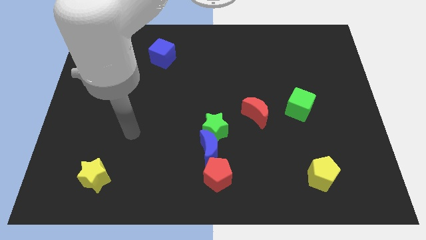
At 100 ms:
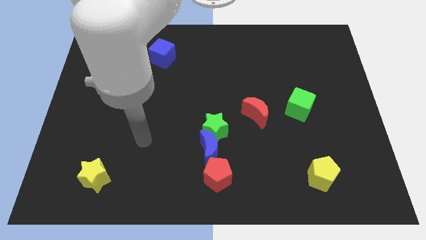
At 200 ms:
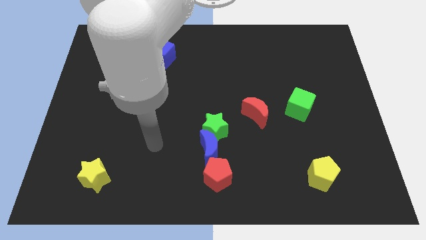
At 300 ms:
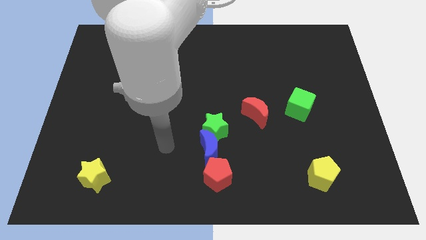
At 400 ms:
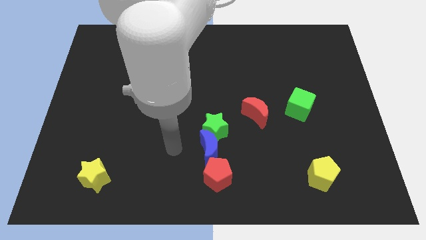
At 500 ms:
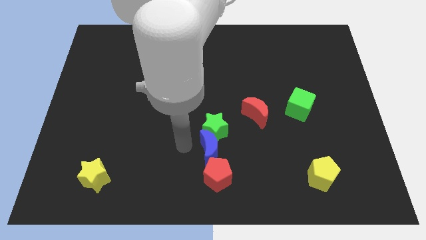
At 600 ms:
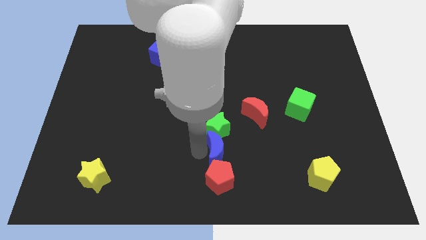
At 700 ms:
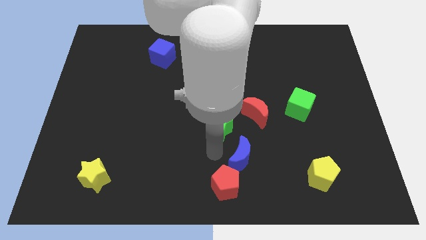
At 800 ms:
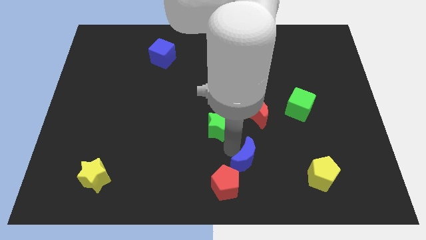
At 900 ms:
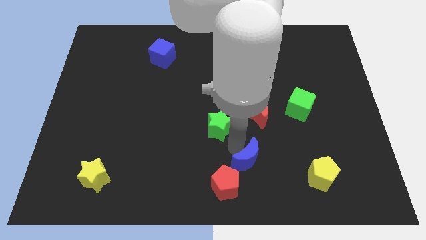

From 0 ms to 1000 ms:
move the green star away from the blue moon

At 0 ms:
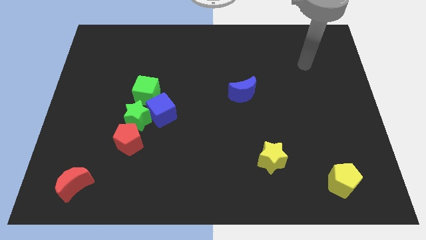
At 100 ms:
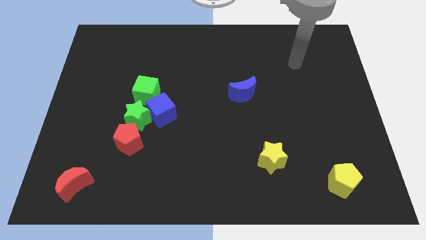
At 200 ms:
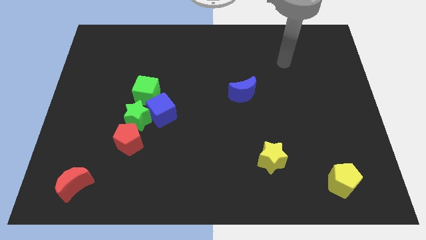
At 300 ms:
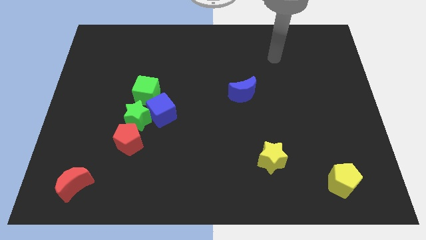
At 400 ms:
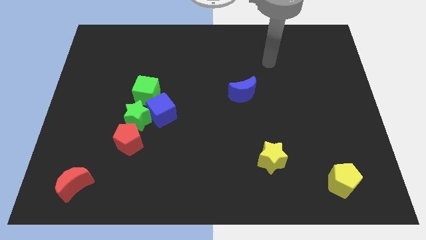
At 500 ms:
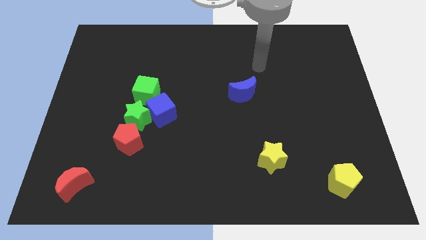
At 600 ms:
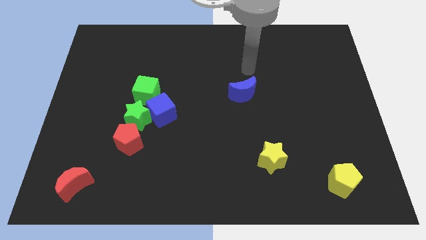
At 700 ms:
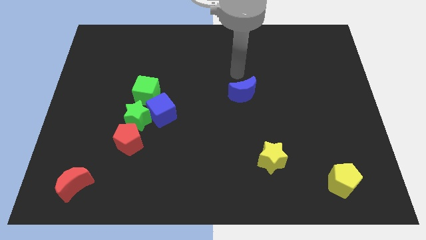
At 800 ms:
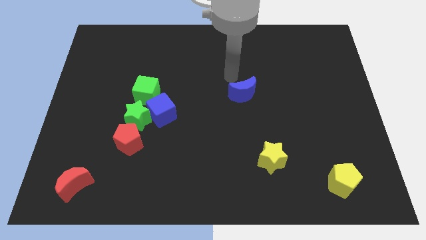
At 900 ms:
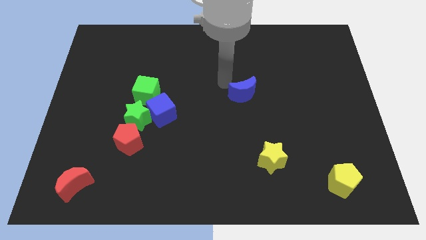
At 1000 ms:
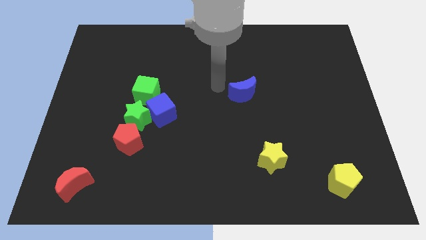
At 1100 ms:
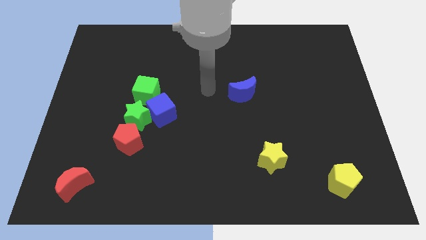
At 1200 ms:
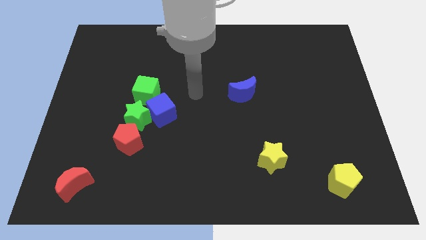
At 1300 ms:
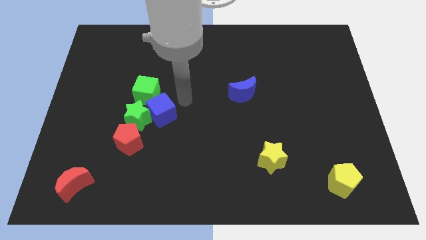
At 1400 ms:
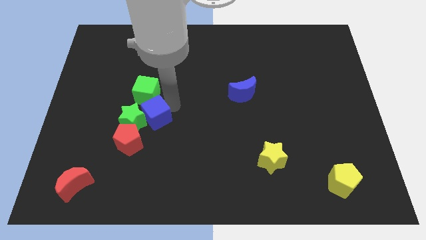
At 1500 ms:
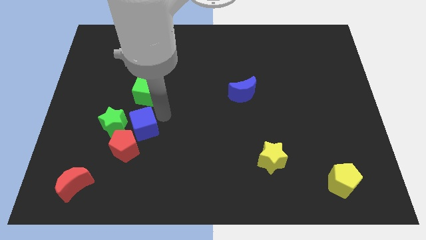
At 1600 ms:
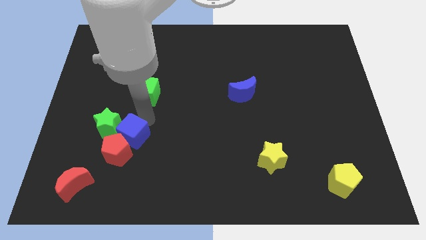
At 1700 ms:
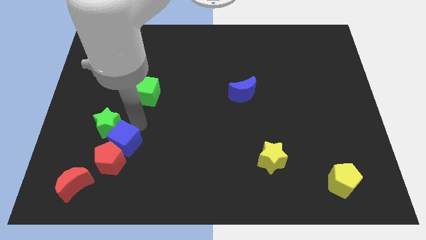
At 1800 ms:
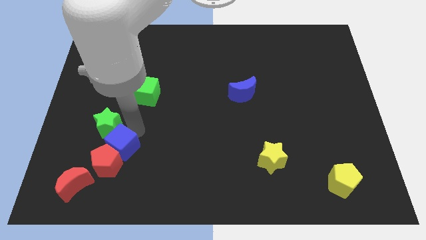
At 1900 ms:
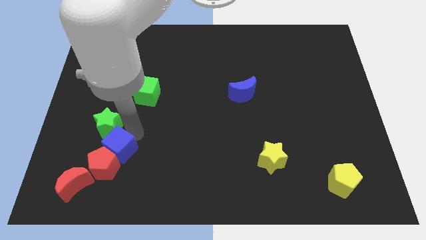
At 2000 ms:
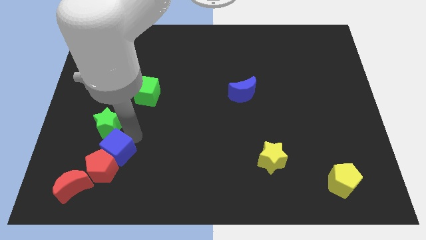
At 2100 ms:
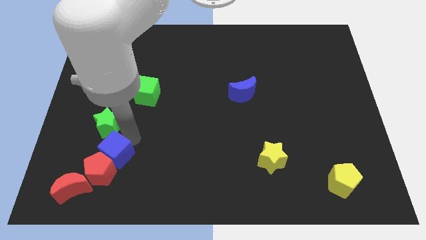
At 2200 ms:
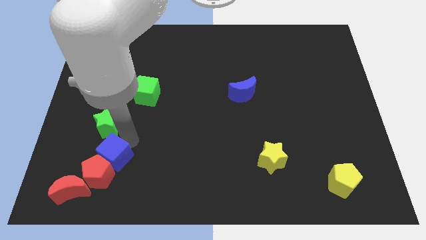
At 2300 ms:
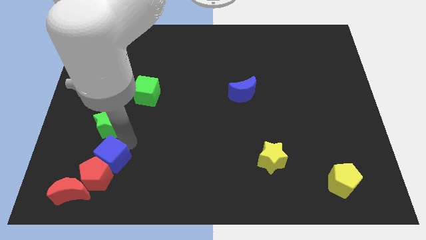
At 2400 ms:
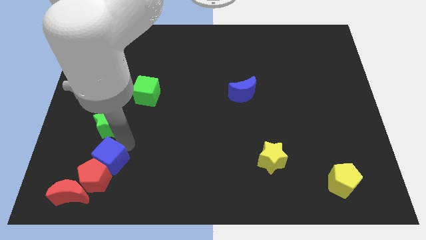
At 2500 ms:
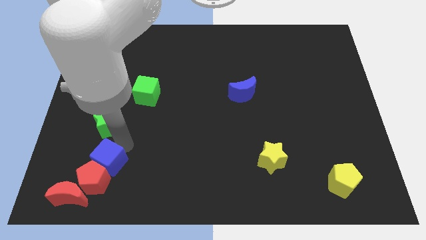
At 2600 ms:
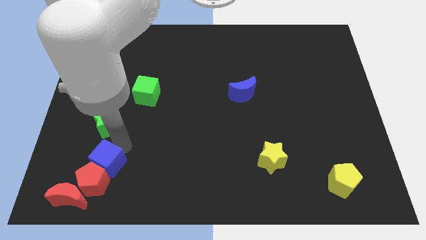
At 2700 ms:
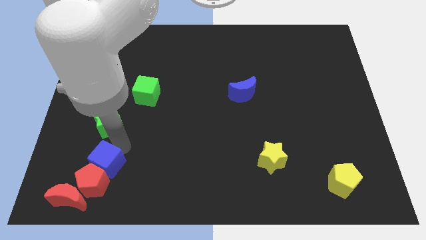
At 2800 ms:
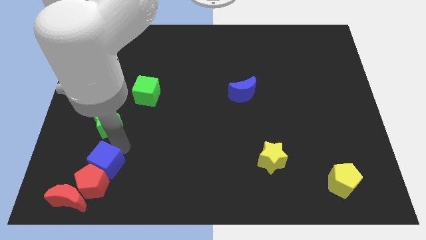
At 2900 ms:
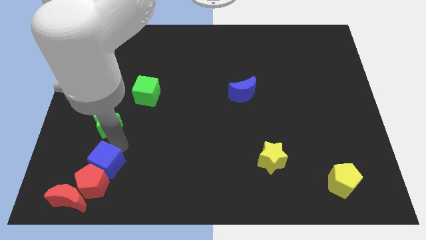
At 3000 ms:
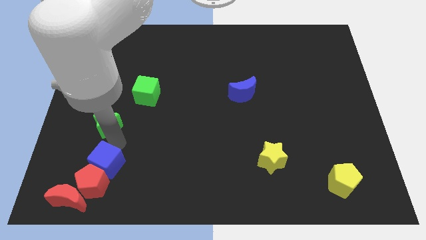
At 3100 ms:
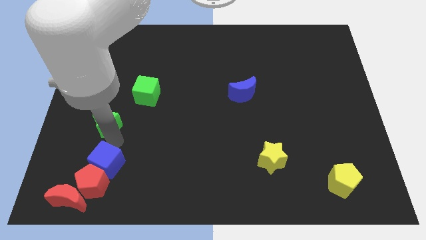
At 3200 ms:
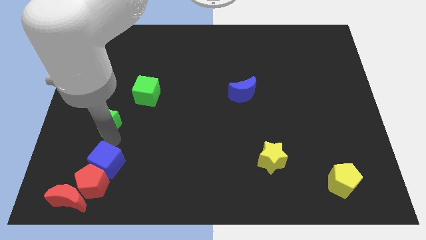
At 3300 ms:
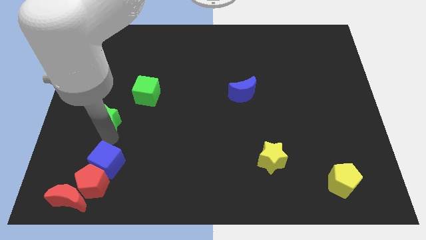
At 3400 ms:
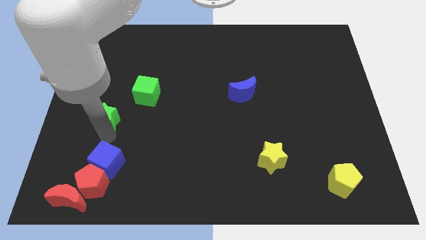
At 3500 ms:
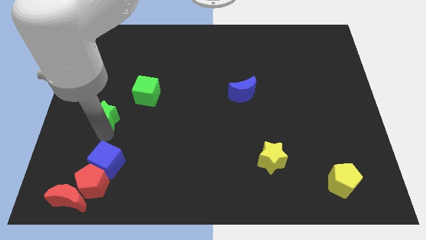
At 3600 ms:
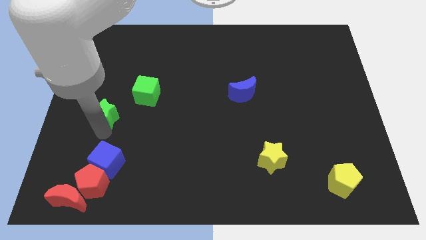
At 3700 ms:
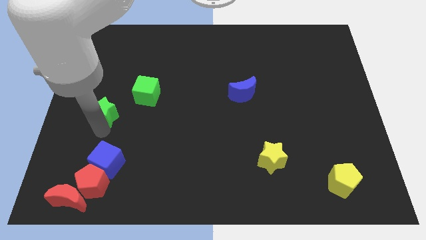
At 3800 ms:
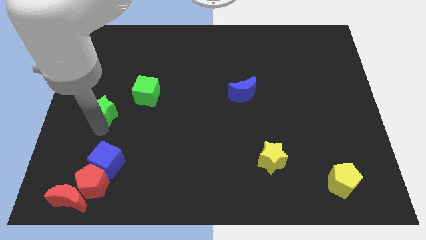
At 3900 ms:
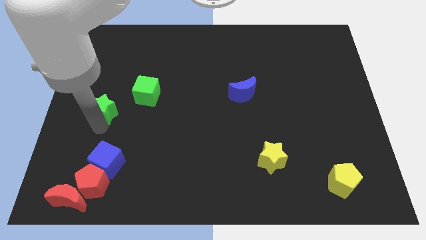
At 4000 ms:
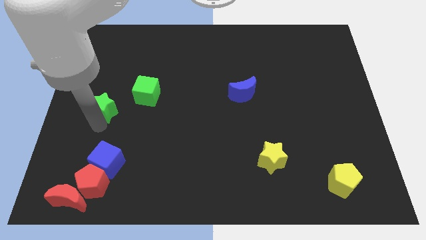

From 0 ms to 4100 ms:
separate the green star from the group of blocks

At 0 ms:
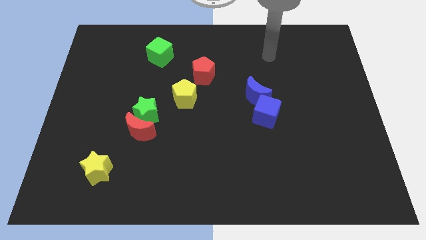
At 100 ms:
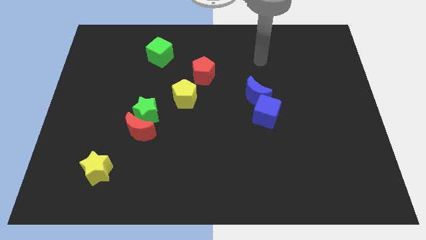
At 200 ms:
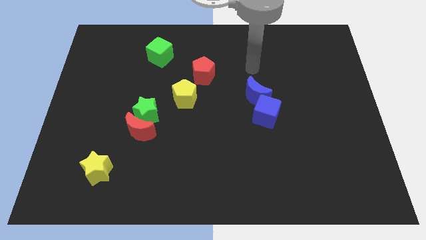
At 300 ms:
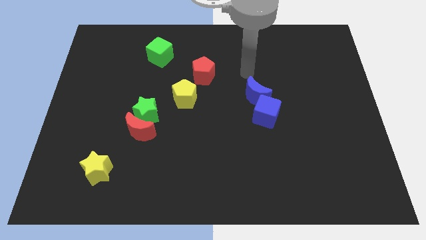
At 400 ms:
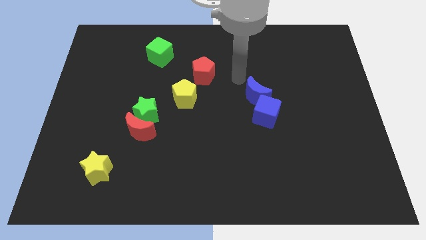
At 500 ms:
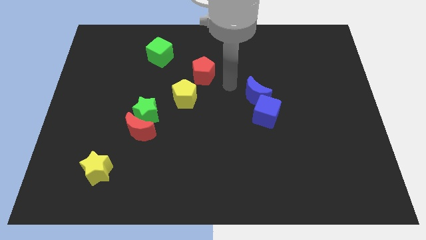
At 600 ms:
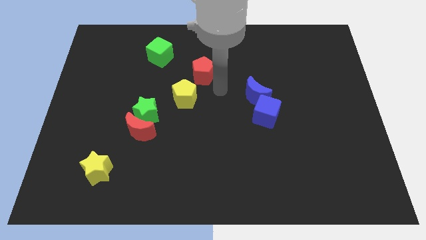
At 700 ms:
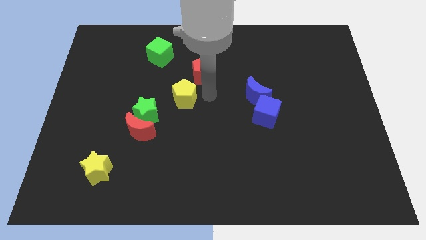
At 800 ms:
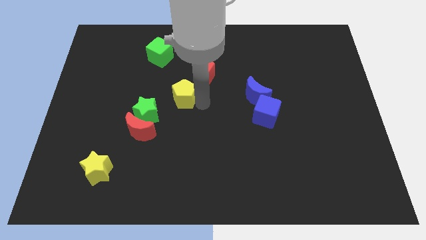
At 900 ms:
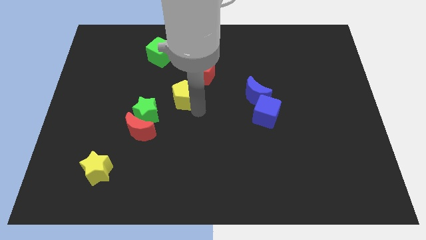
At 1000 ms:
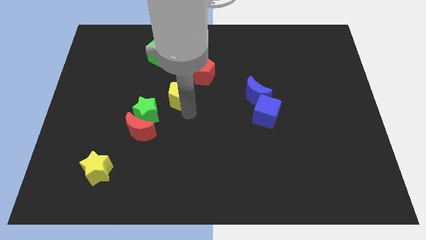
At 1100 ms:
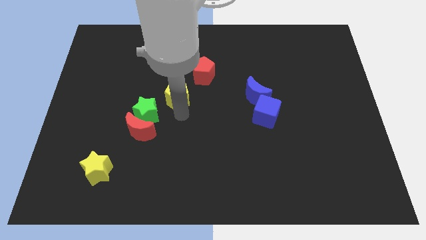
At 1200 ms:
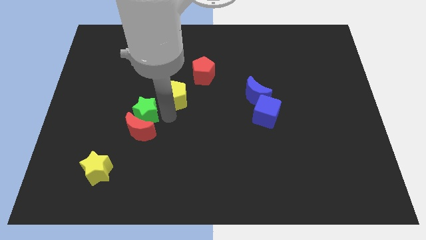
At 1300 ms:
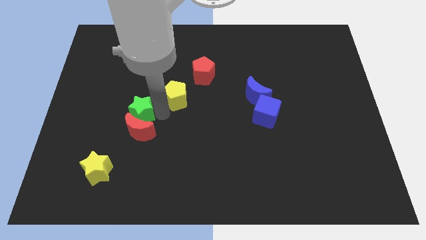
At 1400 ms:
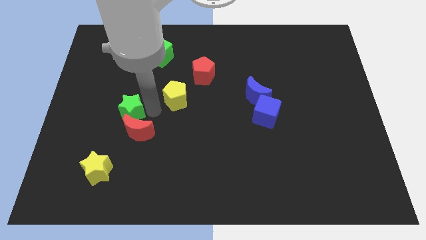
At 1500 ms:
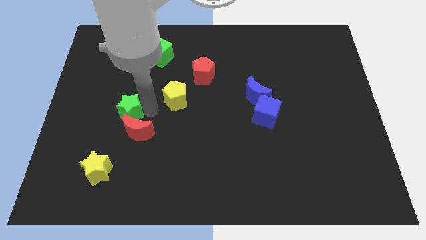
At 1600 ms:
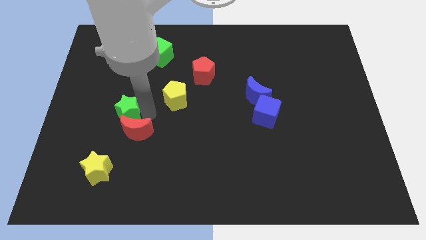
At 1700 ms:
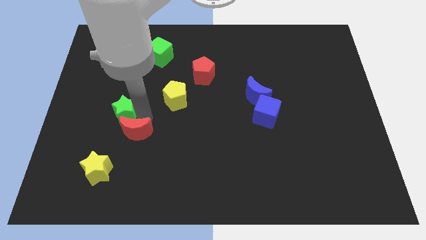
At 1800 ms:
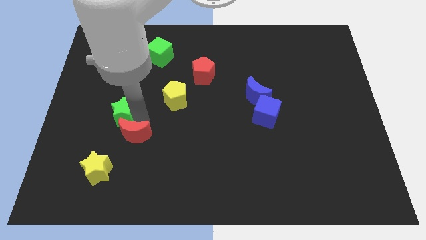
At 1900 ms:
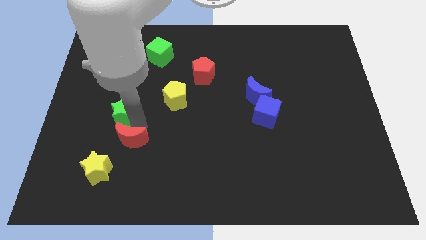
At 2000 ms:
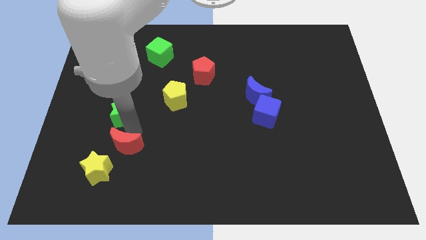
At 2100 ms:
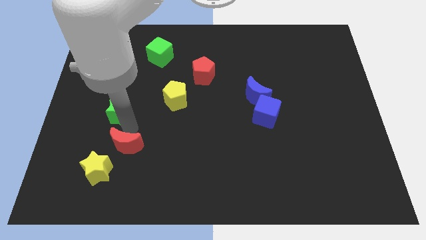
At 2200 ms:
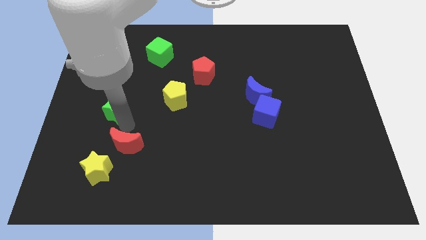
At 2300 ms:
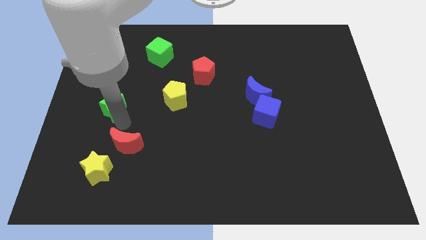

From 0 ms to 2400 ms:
pull the red moon apart from the green star

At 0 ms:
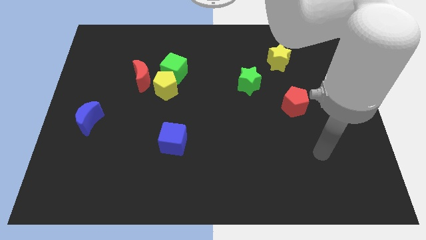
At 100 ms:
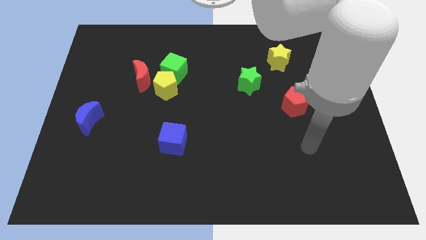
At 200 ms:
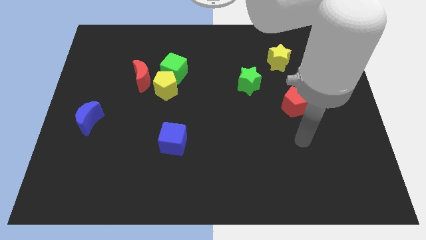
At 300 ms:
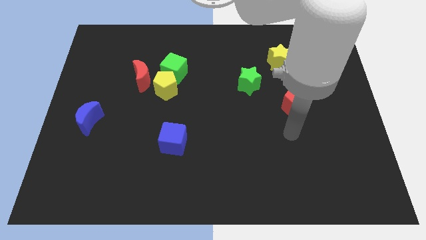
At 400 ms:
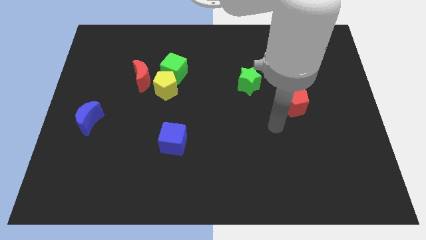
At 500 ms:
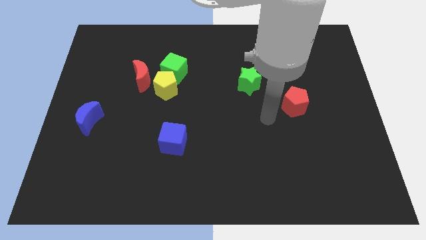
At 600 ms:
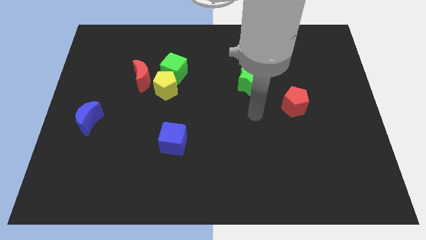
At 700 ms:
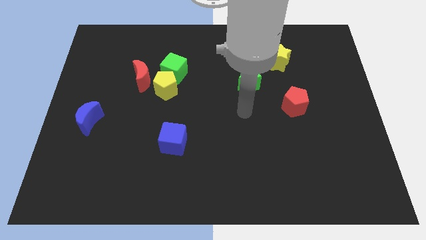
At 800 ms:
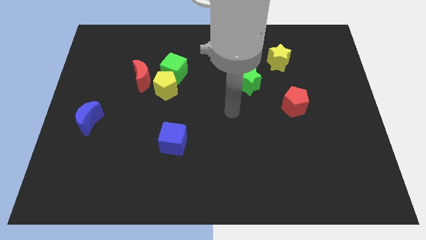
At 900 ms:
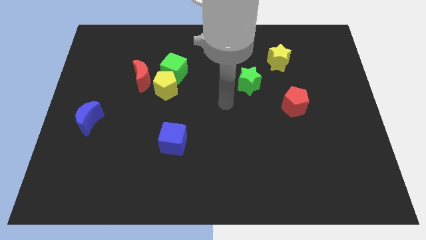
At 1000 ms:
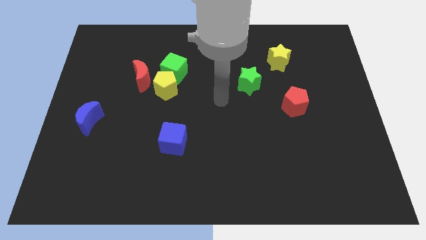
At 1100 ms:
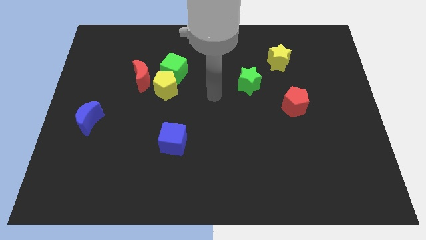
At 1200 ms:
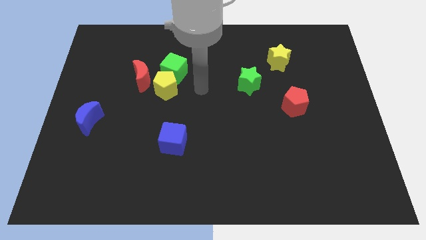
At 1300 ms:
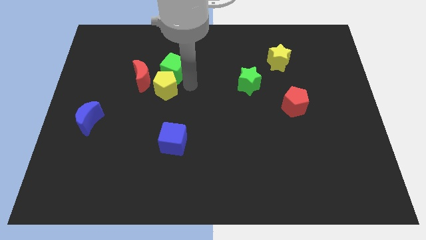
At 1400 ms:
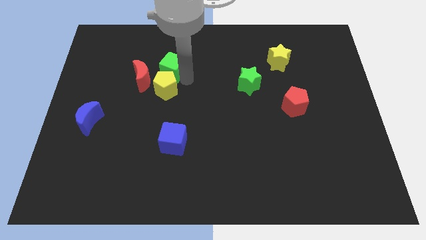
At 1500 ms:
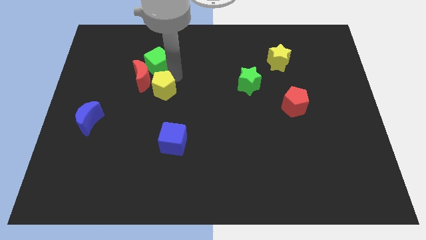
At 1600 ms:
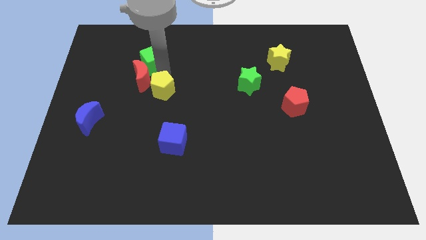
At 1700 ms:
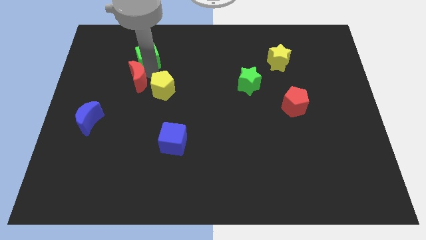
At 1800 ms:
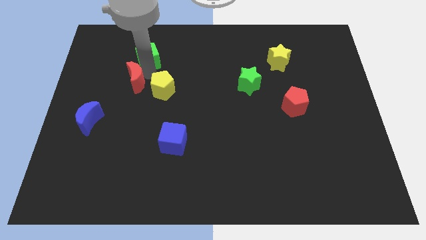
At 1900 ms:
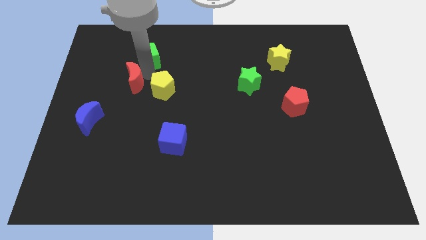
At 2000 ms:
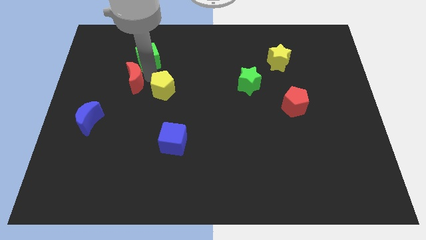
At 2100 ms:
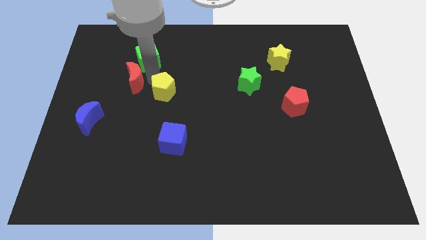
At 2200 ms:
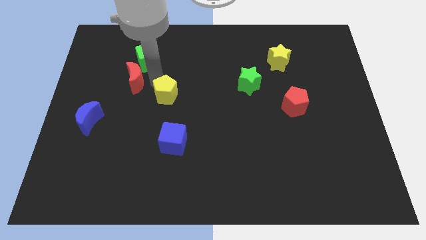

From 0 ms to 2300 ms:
separate the yellow pentagon from the green cube and red moon
